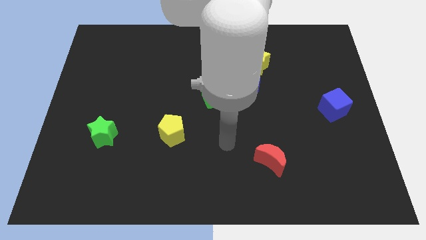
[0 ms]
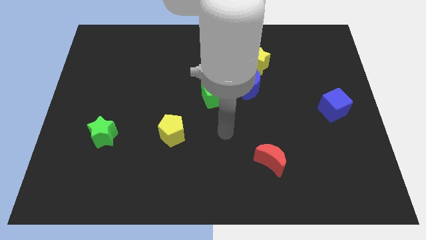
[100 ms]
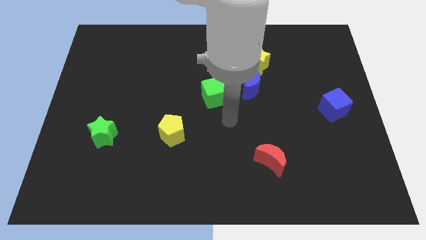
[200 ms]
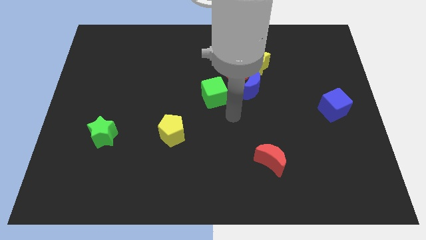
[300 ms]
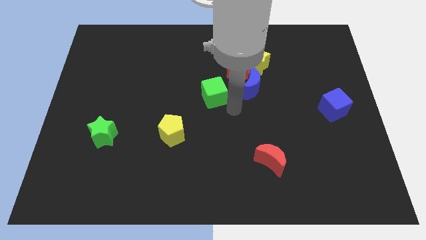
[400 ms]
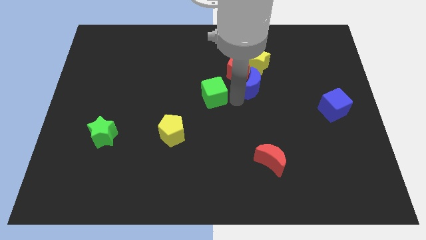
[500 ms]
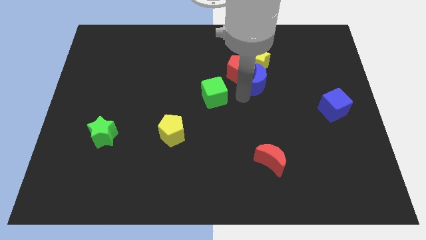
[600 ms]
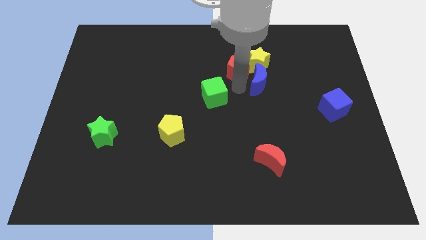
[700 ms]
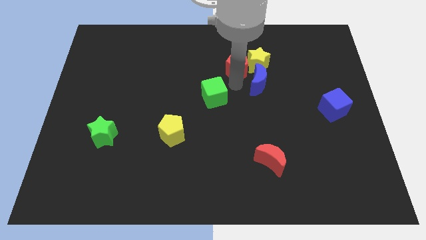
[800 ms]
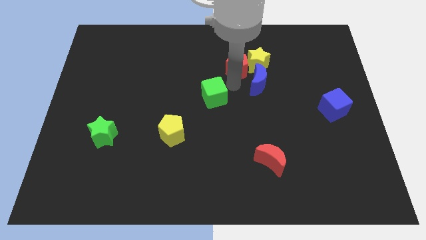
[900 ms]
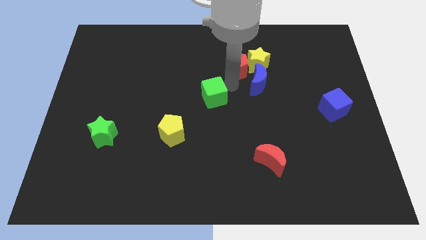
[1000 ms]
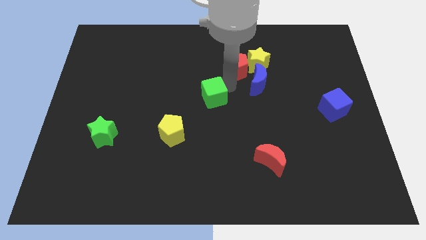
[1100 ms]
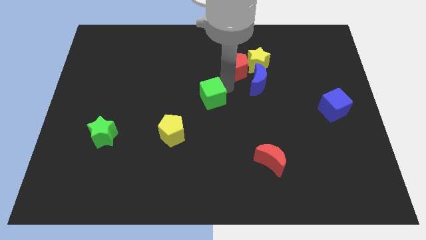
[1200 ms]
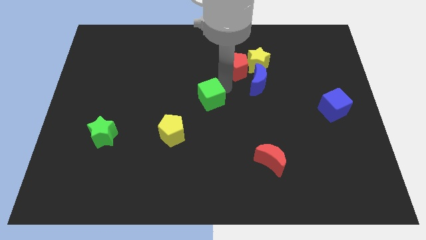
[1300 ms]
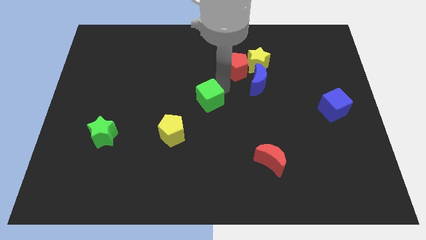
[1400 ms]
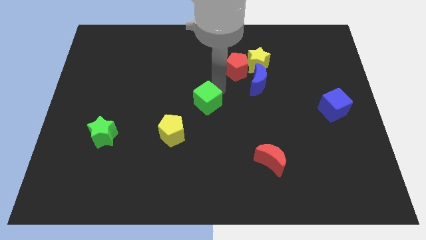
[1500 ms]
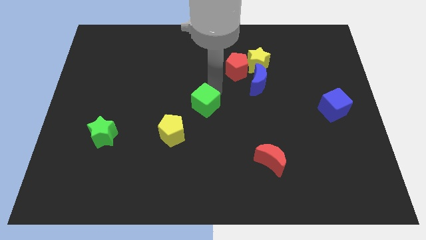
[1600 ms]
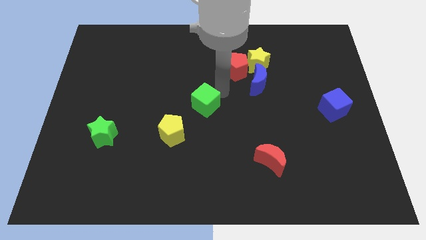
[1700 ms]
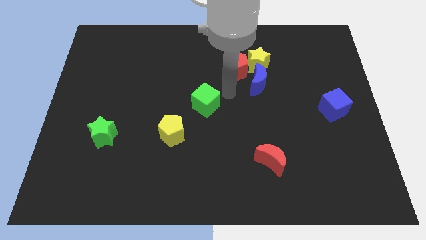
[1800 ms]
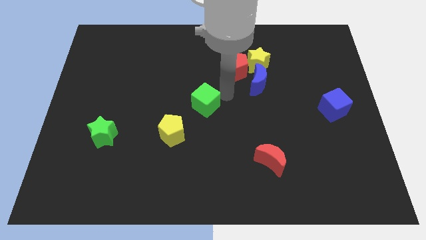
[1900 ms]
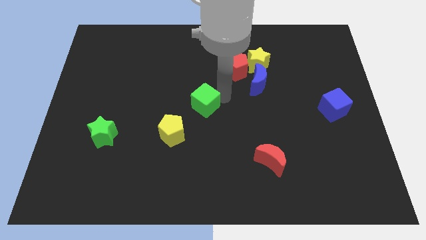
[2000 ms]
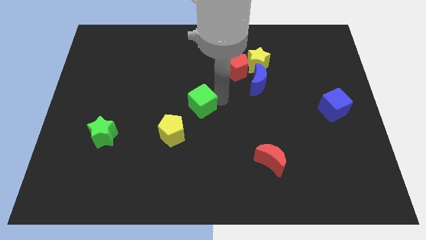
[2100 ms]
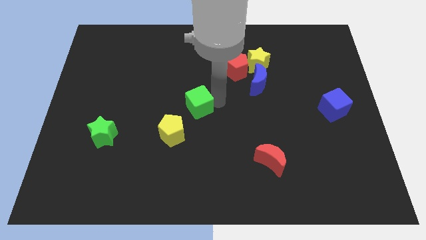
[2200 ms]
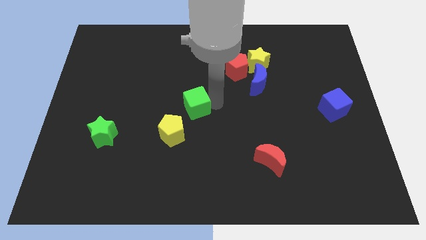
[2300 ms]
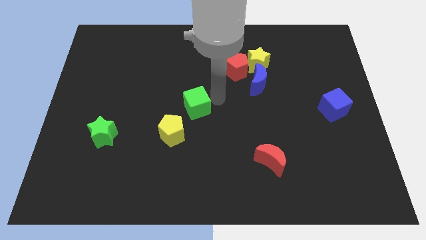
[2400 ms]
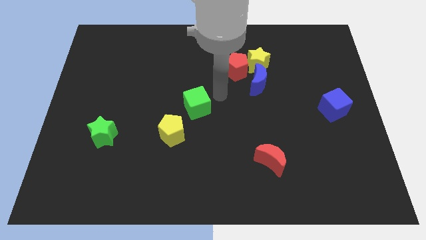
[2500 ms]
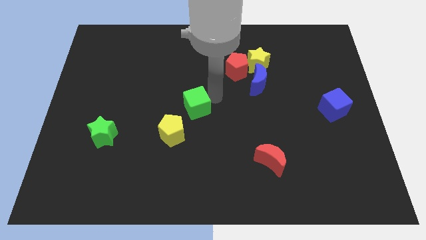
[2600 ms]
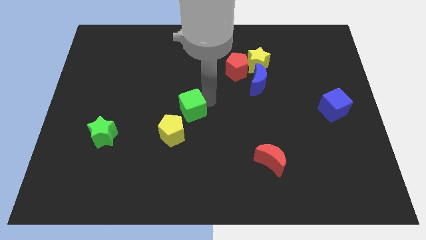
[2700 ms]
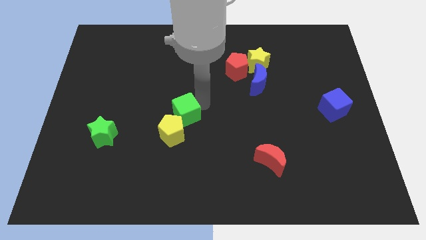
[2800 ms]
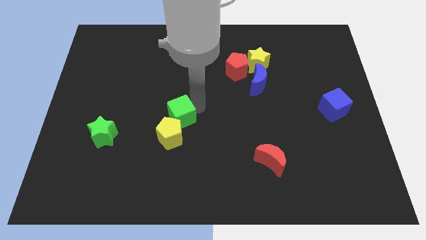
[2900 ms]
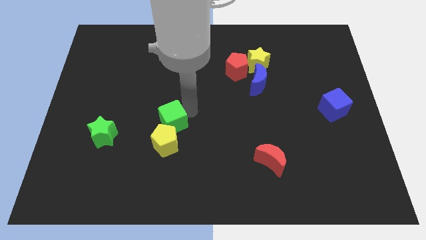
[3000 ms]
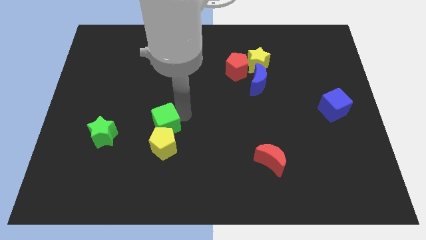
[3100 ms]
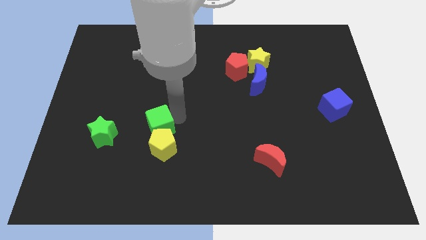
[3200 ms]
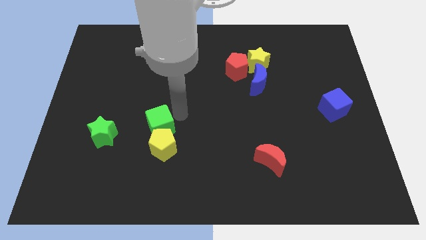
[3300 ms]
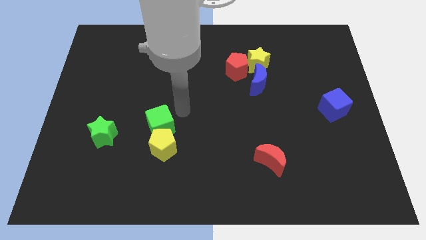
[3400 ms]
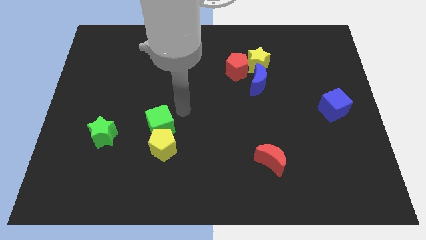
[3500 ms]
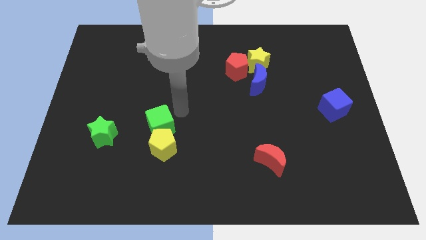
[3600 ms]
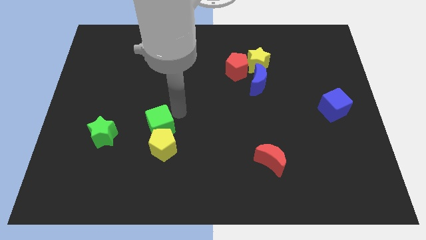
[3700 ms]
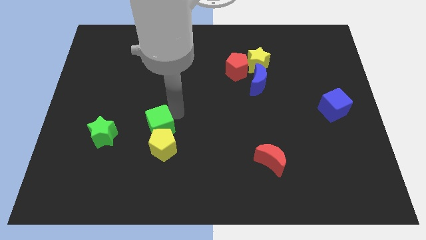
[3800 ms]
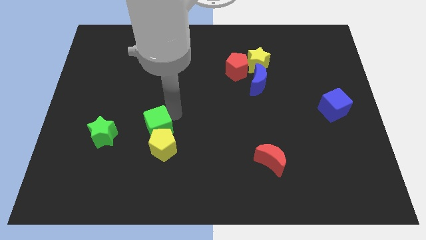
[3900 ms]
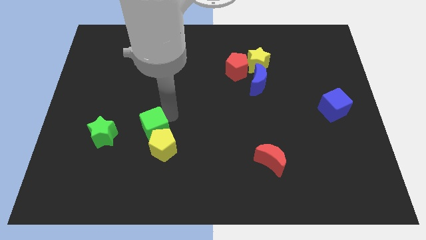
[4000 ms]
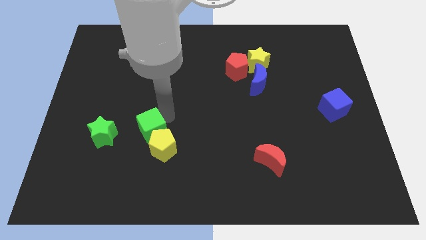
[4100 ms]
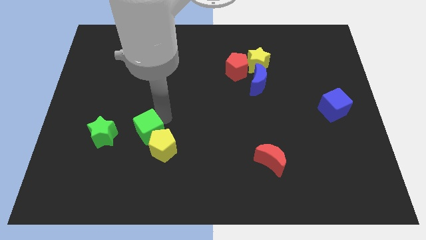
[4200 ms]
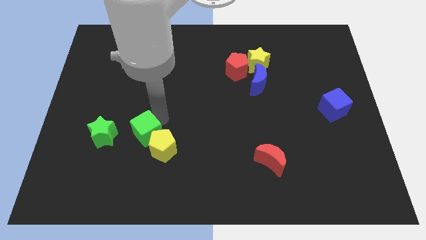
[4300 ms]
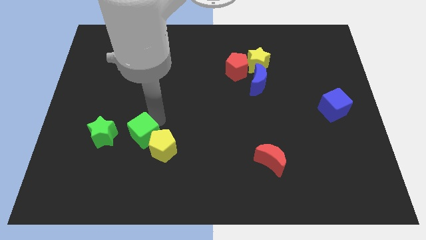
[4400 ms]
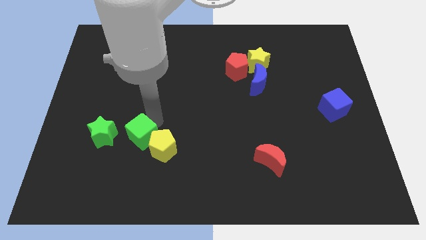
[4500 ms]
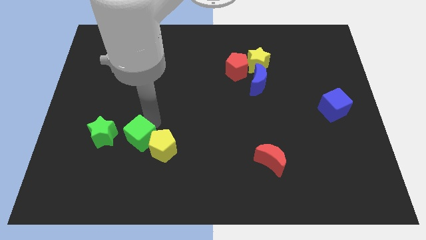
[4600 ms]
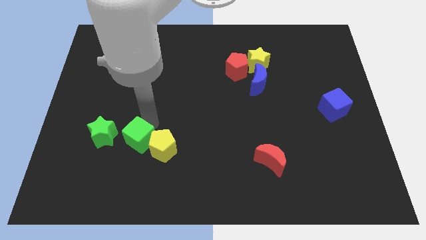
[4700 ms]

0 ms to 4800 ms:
push the green cube downwards and then to the left

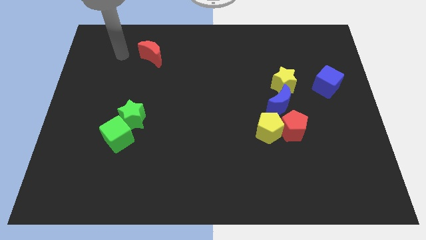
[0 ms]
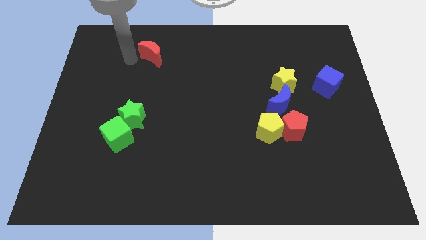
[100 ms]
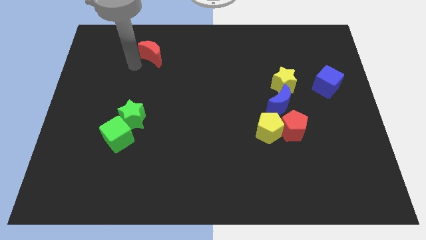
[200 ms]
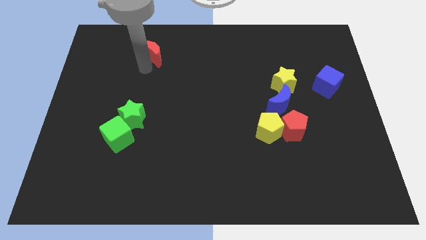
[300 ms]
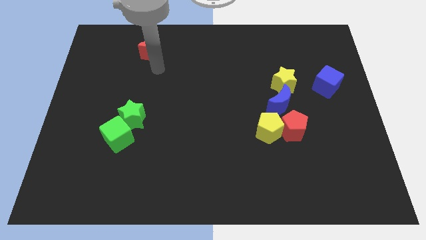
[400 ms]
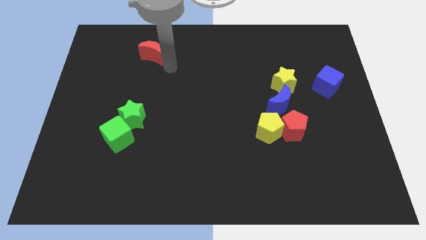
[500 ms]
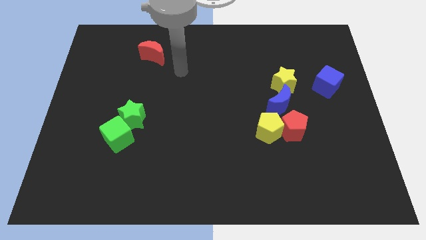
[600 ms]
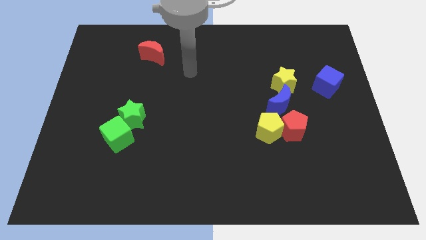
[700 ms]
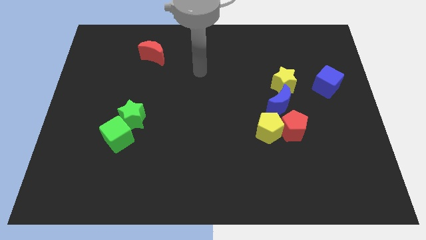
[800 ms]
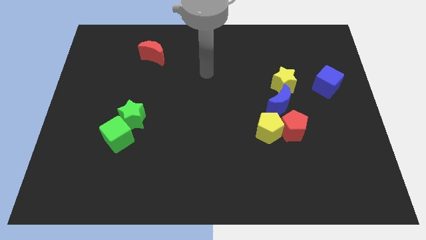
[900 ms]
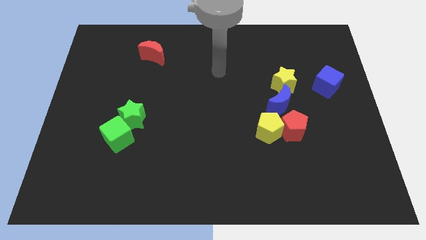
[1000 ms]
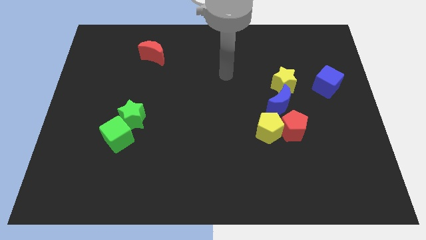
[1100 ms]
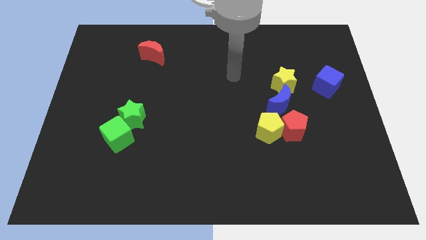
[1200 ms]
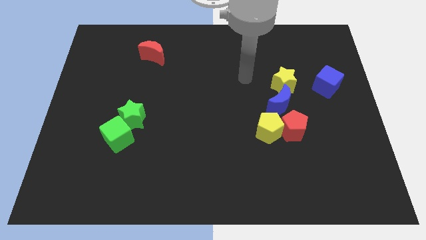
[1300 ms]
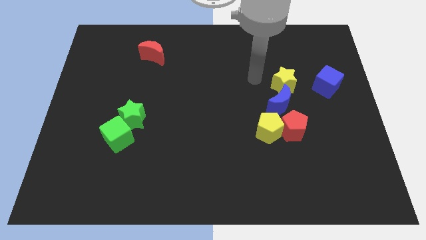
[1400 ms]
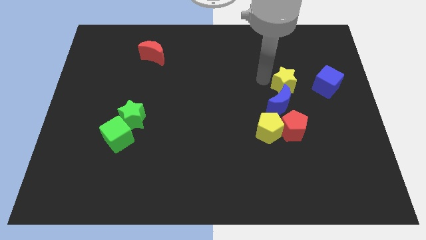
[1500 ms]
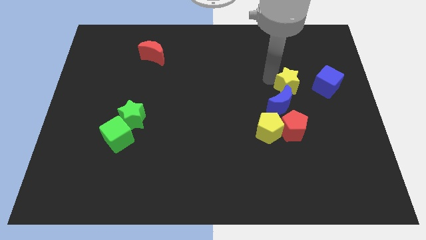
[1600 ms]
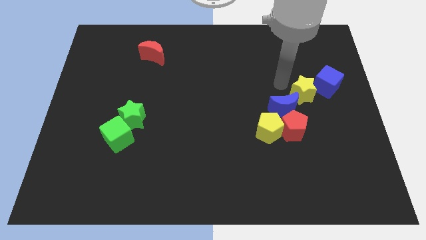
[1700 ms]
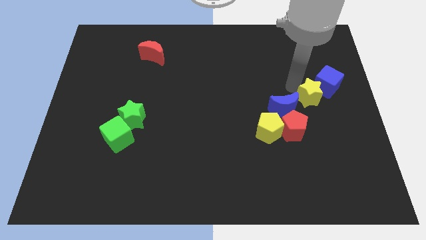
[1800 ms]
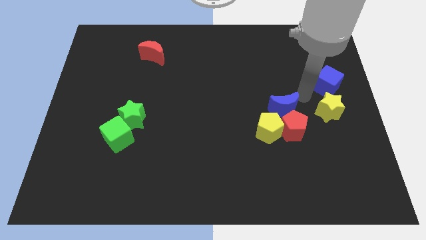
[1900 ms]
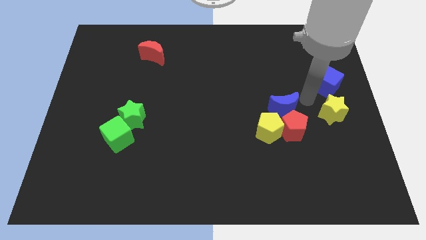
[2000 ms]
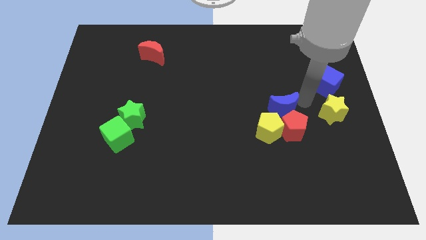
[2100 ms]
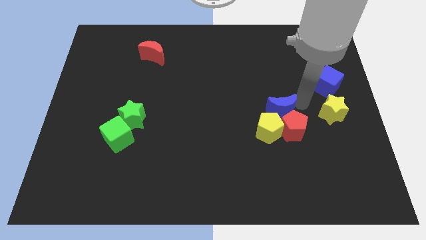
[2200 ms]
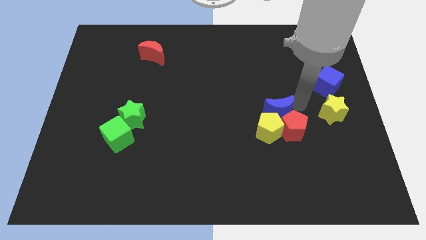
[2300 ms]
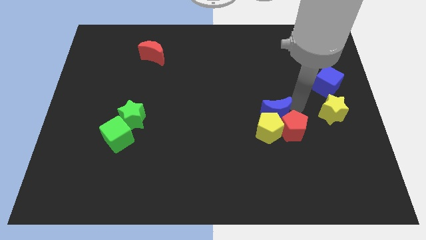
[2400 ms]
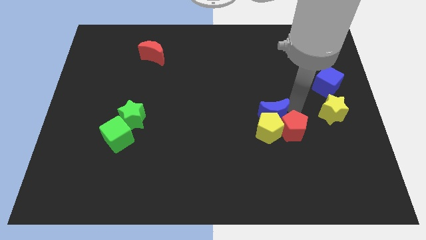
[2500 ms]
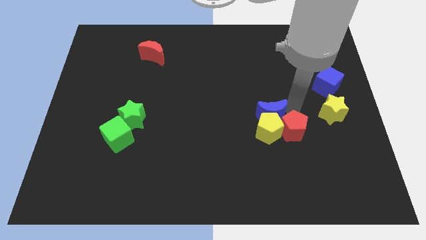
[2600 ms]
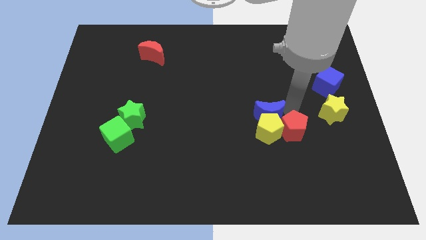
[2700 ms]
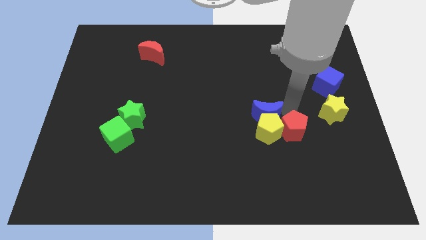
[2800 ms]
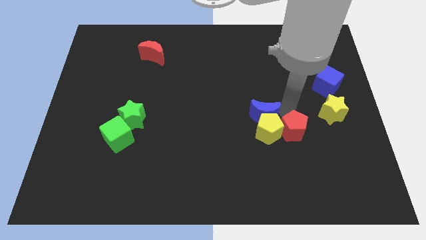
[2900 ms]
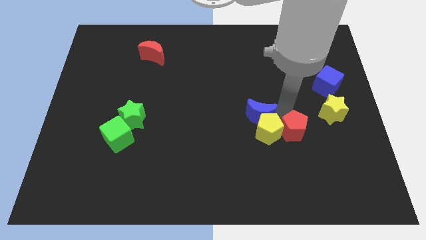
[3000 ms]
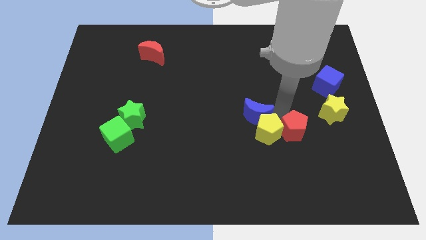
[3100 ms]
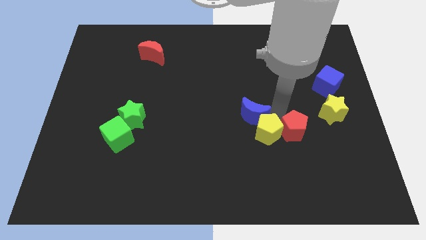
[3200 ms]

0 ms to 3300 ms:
slide the blue moon a little downwards and left

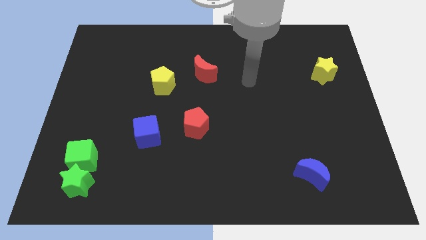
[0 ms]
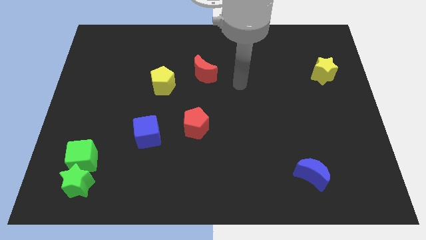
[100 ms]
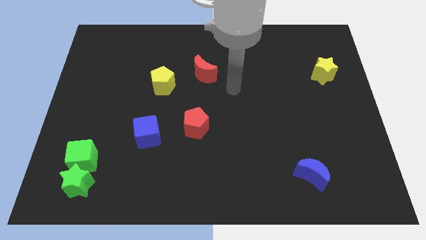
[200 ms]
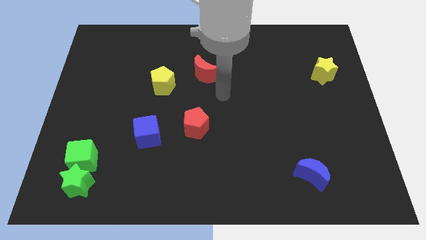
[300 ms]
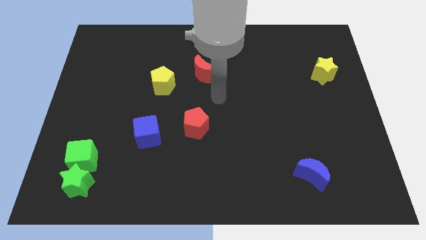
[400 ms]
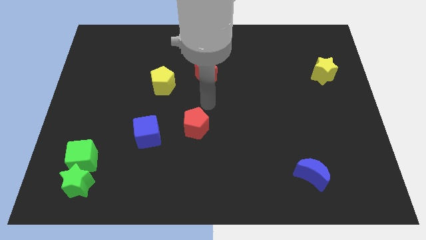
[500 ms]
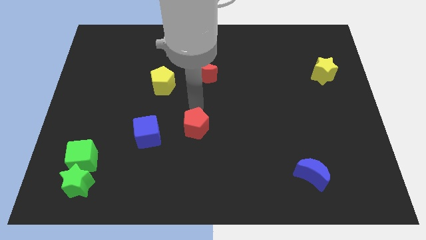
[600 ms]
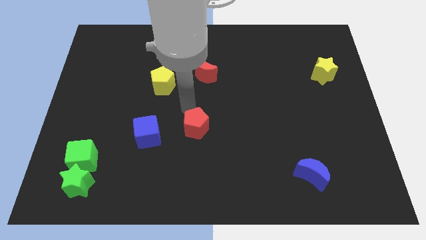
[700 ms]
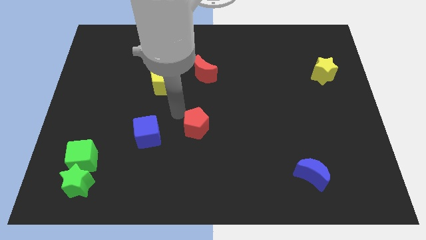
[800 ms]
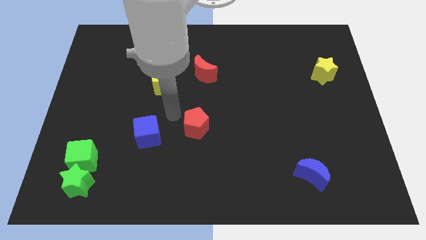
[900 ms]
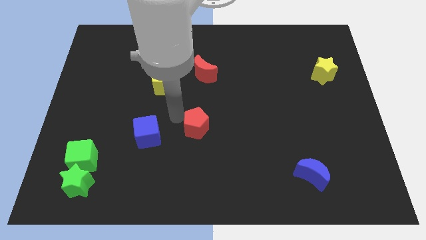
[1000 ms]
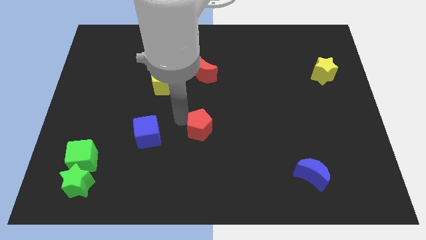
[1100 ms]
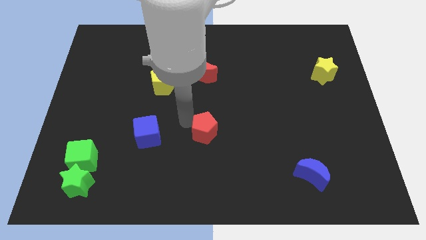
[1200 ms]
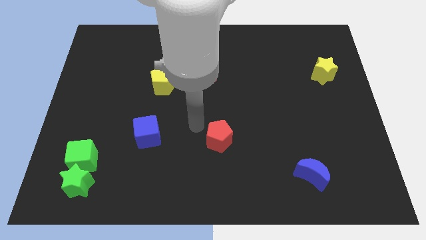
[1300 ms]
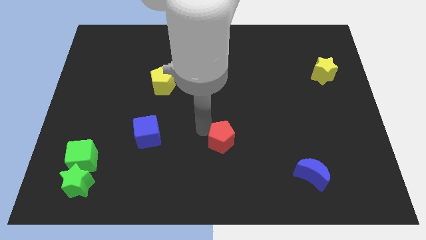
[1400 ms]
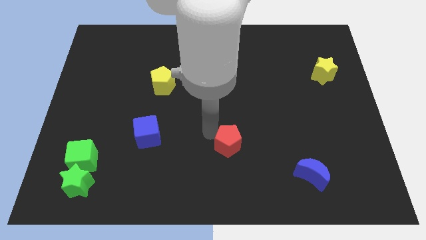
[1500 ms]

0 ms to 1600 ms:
push the red pentagon downwards and to the right diagonally a bit
